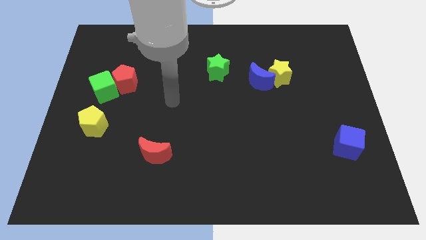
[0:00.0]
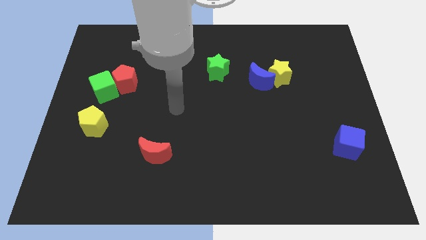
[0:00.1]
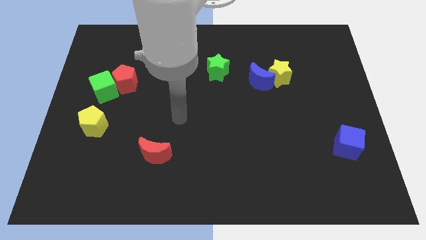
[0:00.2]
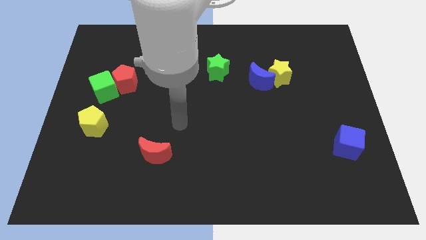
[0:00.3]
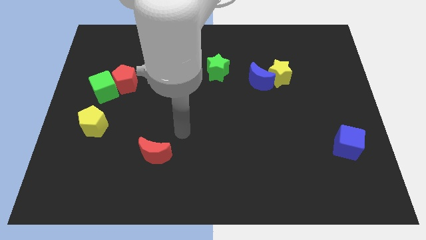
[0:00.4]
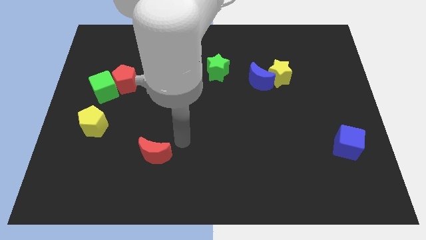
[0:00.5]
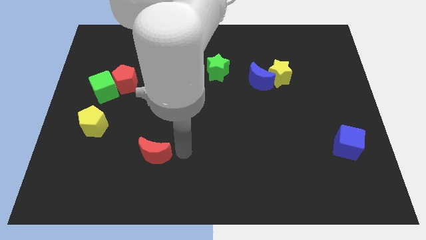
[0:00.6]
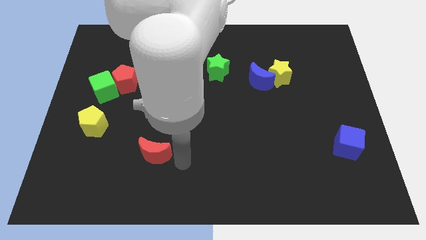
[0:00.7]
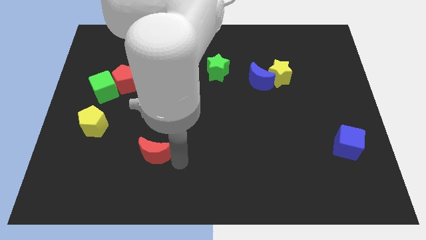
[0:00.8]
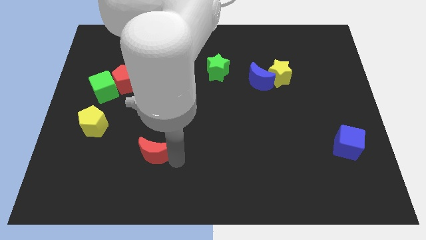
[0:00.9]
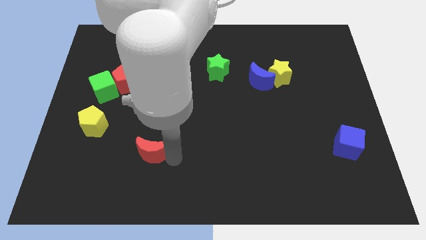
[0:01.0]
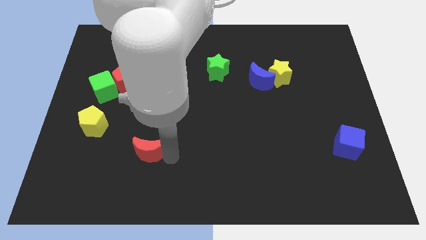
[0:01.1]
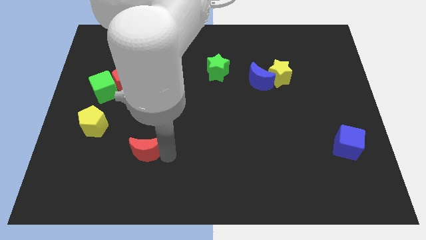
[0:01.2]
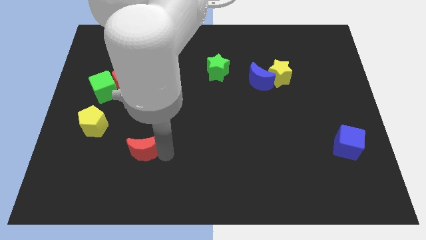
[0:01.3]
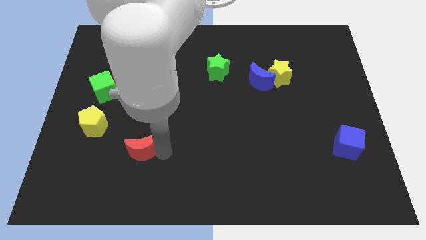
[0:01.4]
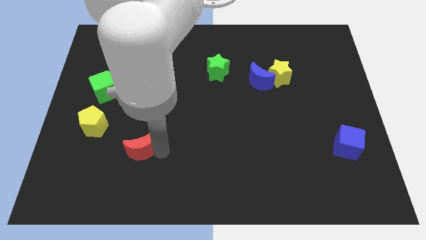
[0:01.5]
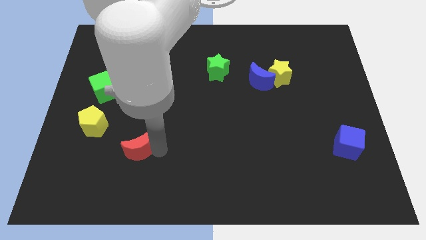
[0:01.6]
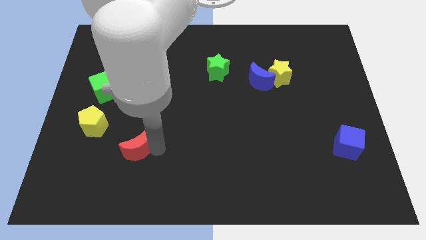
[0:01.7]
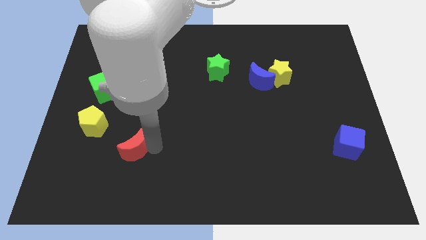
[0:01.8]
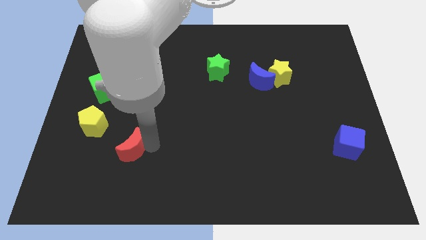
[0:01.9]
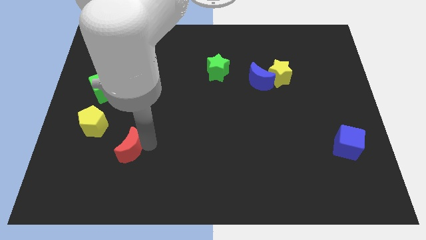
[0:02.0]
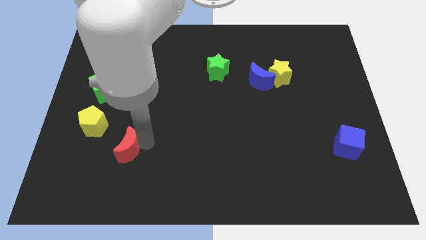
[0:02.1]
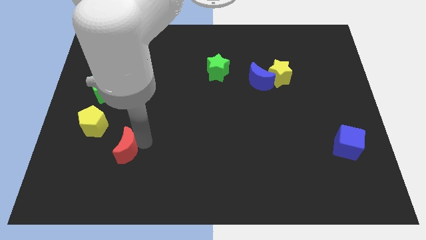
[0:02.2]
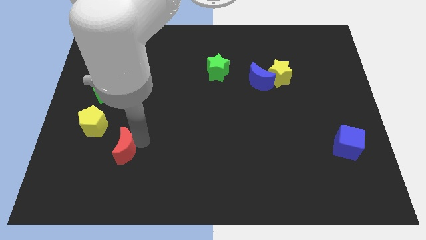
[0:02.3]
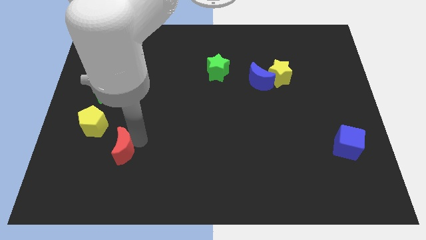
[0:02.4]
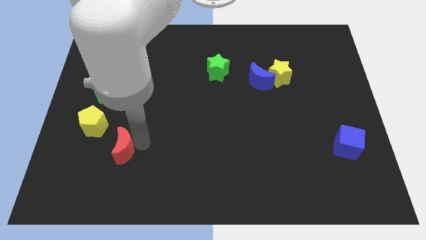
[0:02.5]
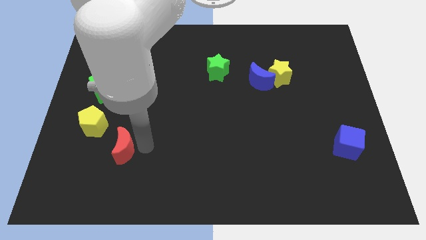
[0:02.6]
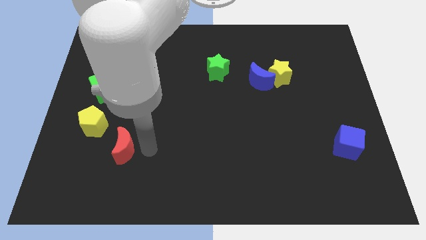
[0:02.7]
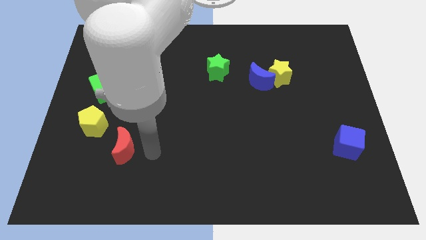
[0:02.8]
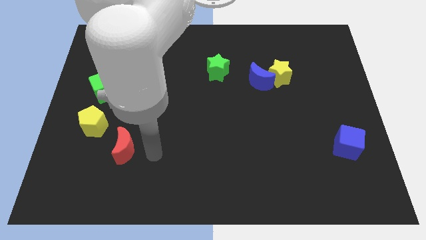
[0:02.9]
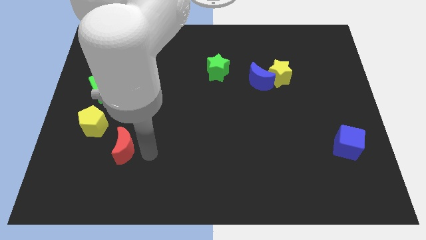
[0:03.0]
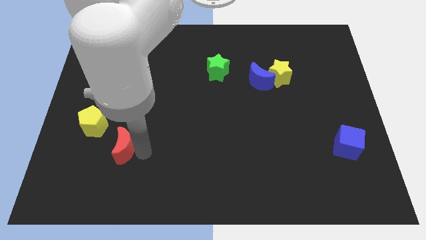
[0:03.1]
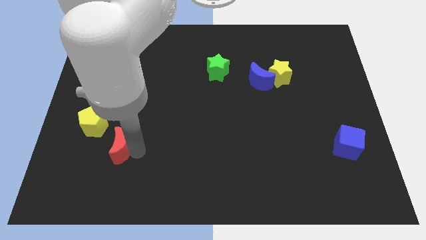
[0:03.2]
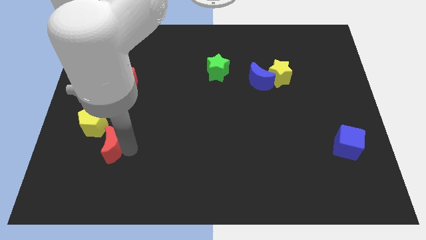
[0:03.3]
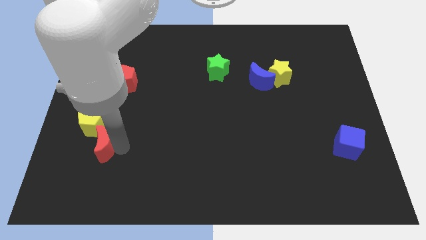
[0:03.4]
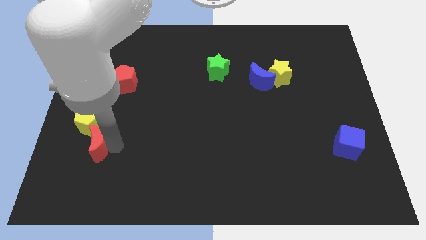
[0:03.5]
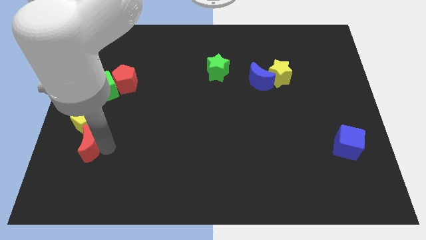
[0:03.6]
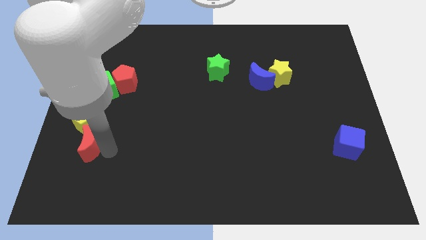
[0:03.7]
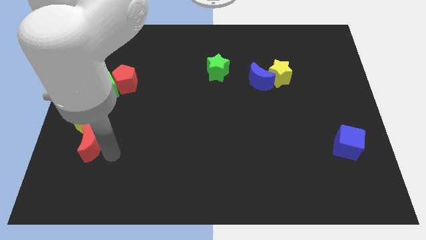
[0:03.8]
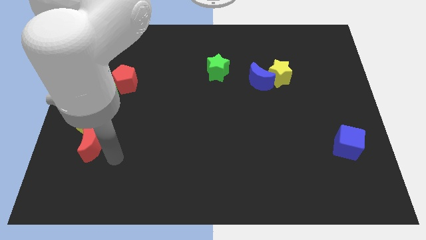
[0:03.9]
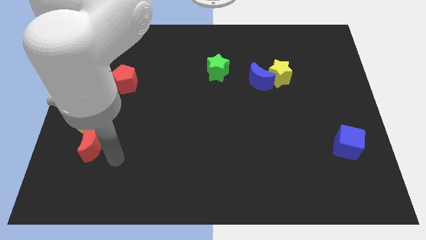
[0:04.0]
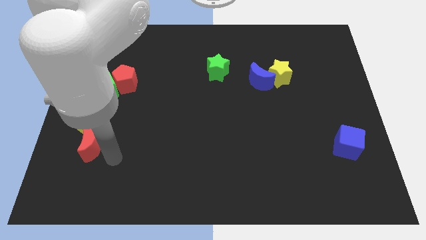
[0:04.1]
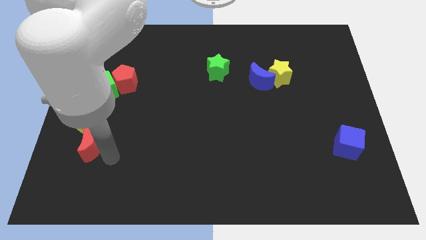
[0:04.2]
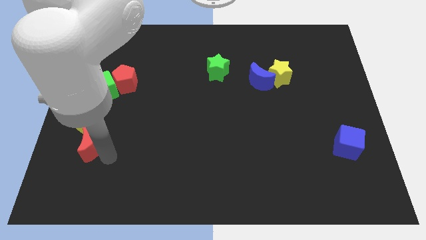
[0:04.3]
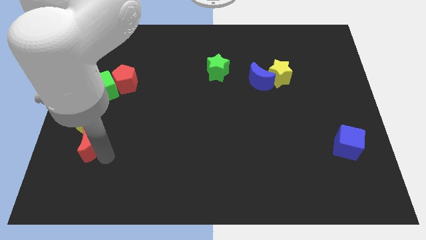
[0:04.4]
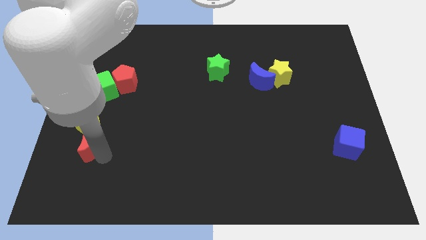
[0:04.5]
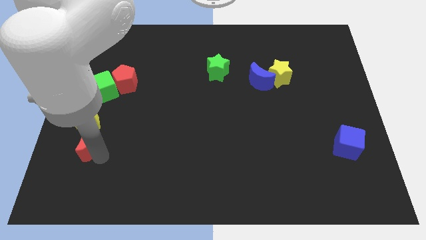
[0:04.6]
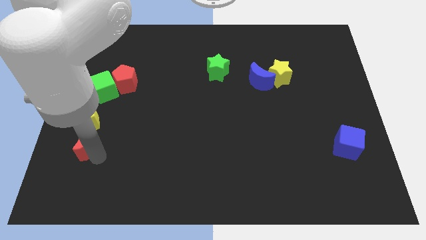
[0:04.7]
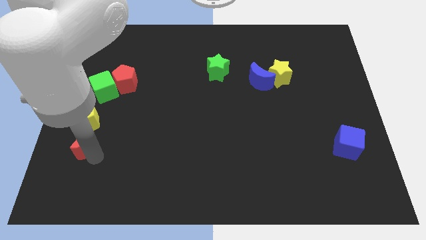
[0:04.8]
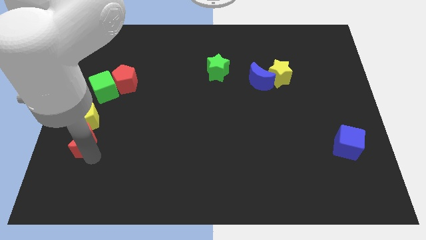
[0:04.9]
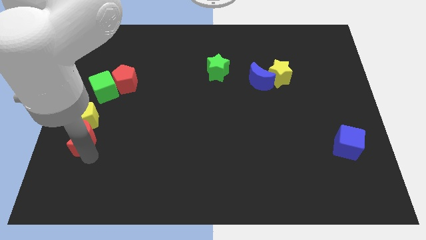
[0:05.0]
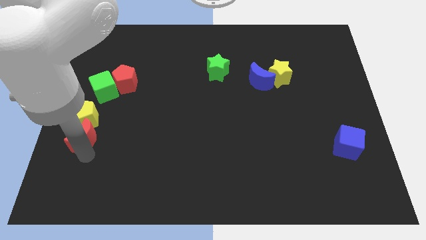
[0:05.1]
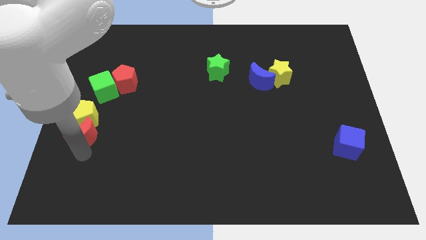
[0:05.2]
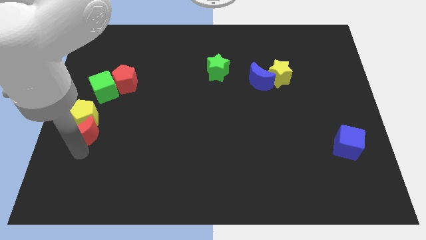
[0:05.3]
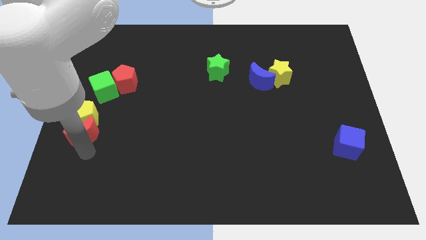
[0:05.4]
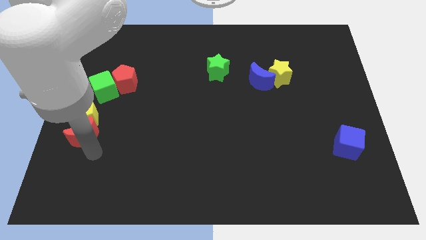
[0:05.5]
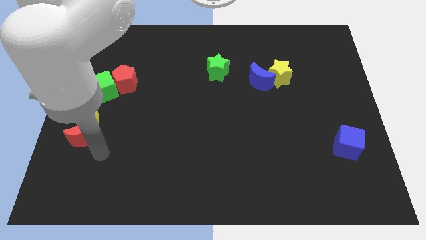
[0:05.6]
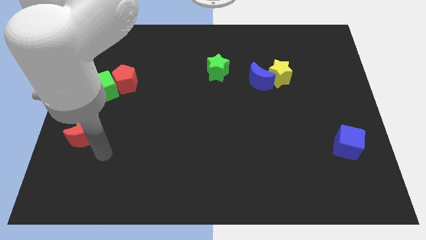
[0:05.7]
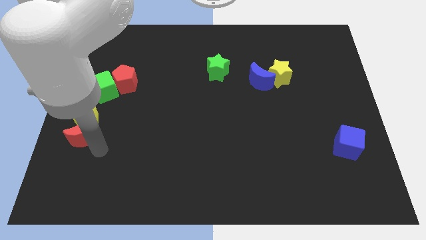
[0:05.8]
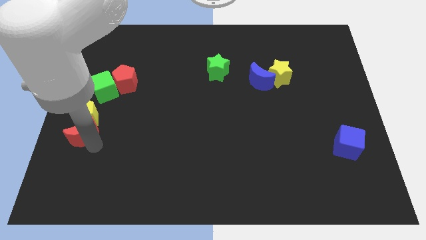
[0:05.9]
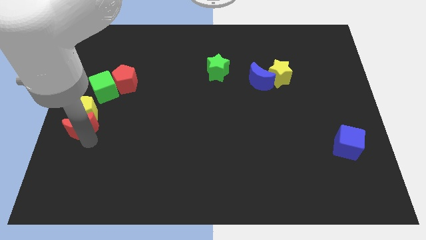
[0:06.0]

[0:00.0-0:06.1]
slide the red moon to the left side

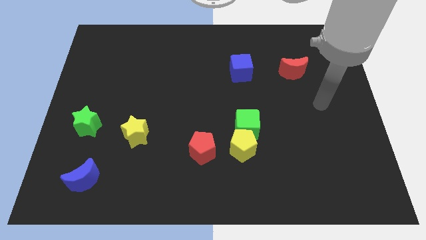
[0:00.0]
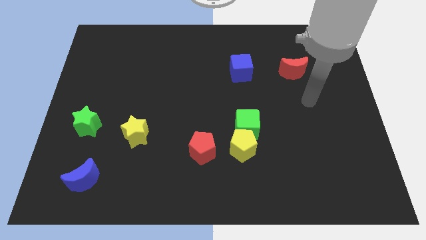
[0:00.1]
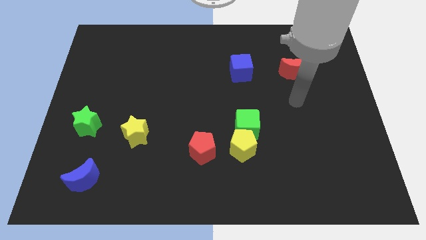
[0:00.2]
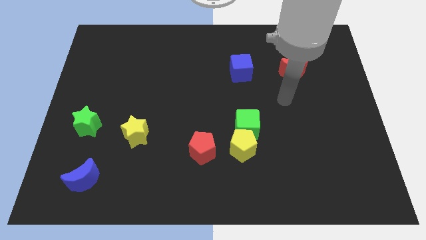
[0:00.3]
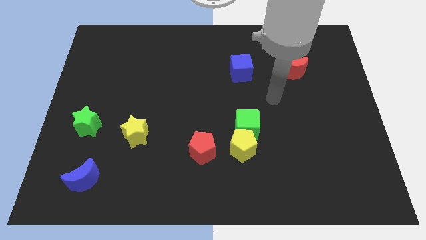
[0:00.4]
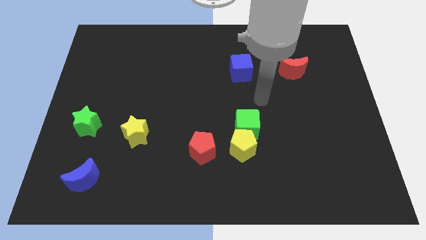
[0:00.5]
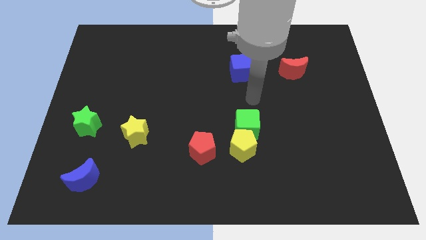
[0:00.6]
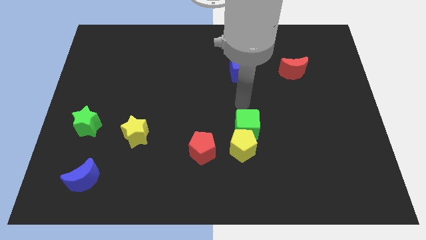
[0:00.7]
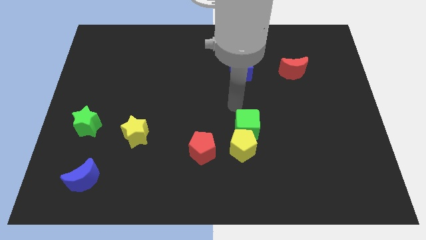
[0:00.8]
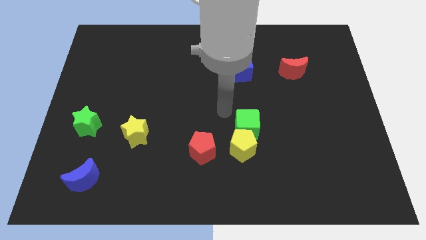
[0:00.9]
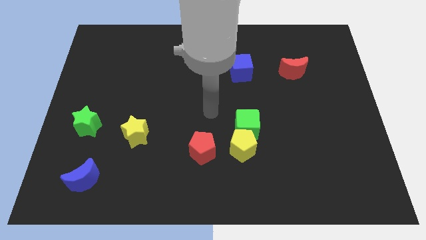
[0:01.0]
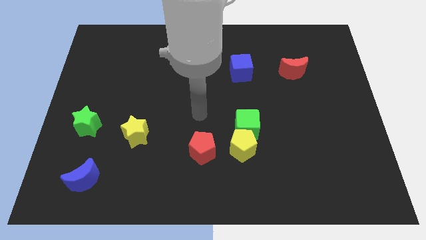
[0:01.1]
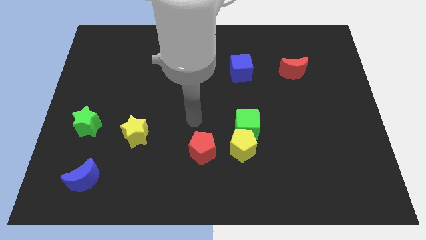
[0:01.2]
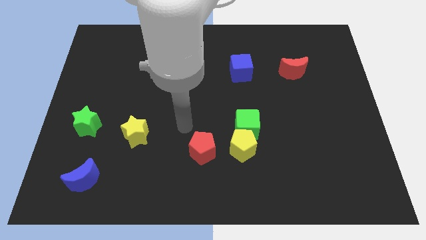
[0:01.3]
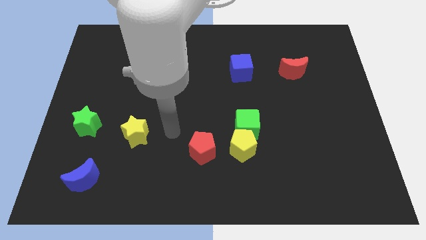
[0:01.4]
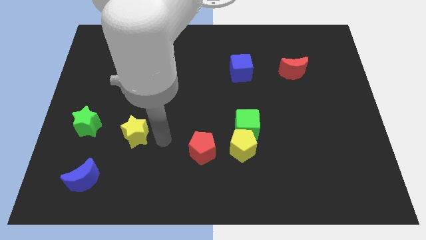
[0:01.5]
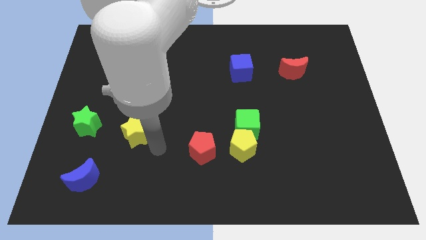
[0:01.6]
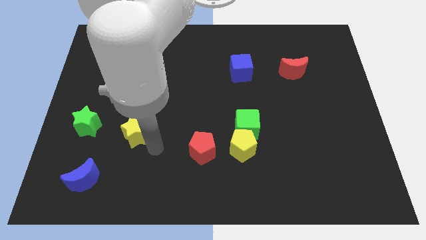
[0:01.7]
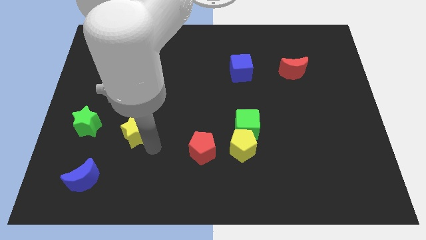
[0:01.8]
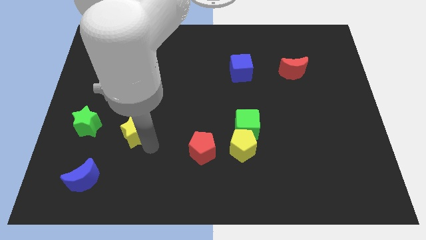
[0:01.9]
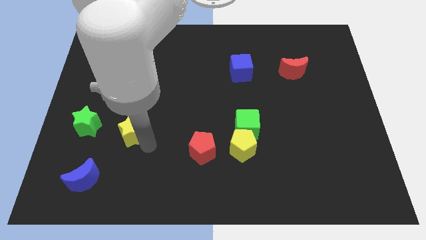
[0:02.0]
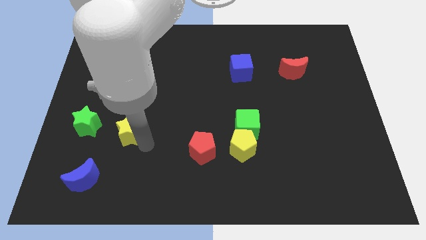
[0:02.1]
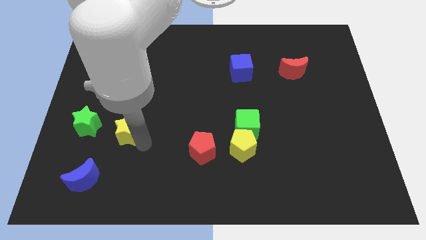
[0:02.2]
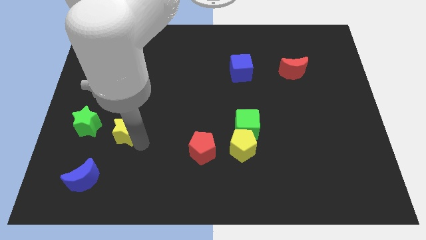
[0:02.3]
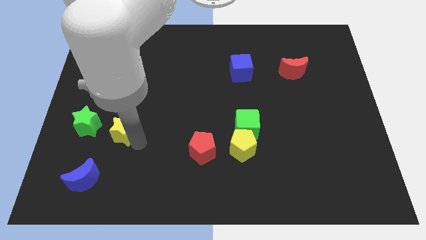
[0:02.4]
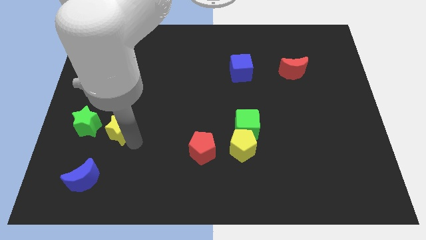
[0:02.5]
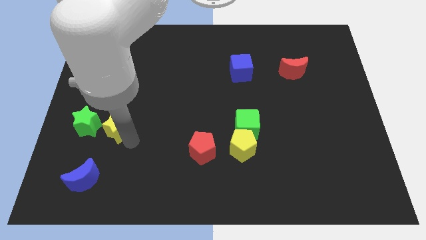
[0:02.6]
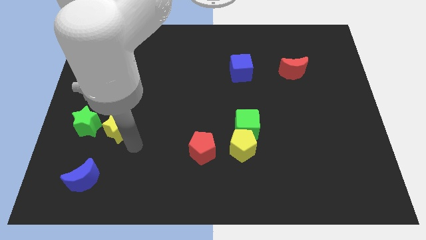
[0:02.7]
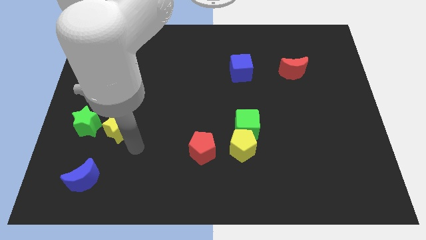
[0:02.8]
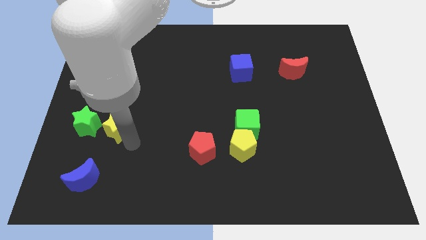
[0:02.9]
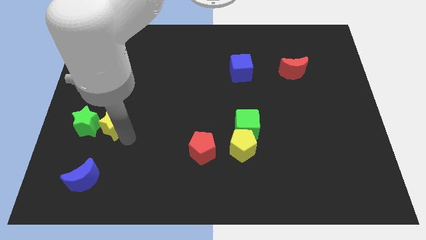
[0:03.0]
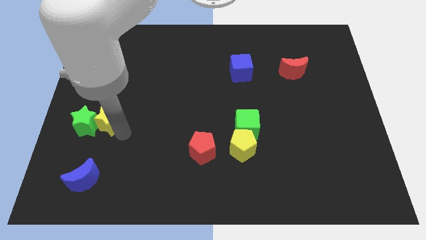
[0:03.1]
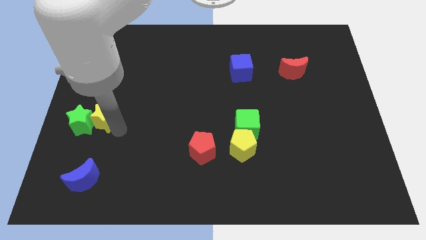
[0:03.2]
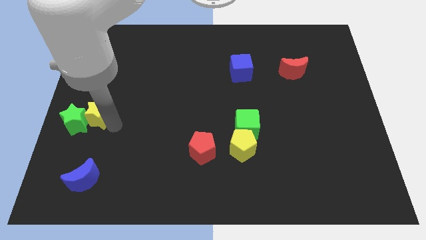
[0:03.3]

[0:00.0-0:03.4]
slide the yellow star to the center left
